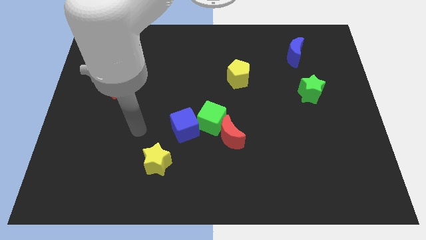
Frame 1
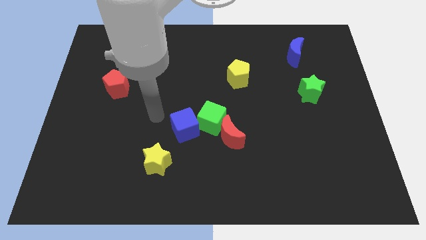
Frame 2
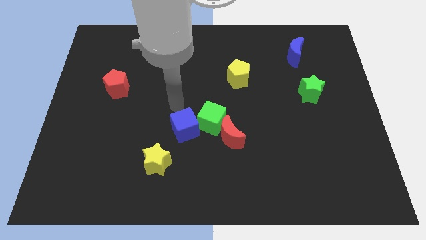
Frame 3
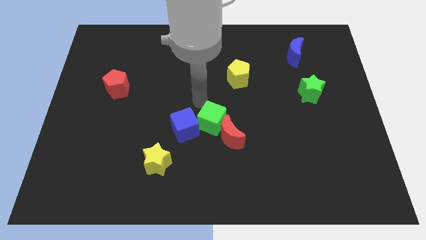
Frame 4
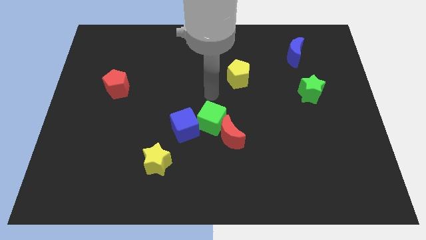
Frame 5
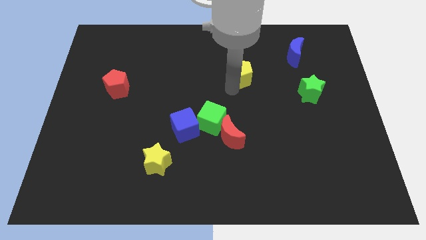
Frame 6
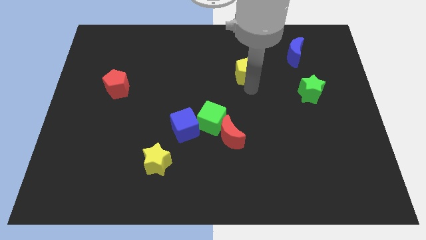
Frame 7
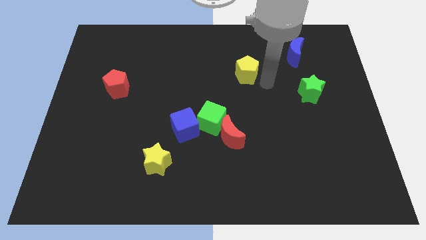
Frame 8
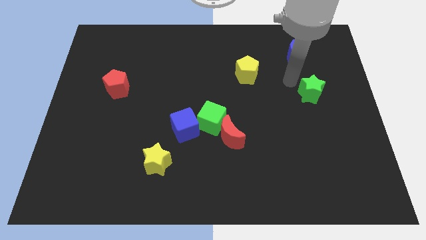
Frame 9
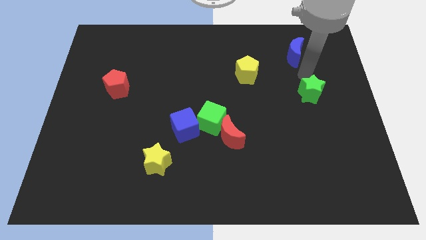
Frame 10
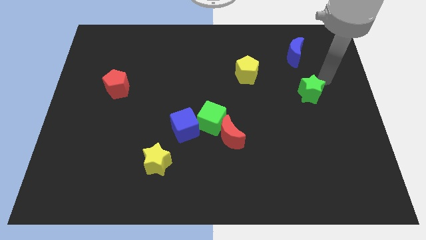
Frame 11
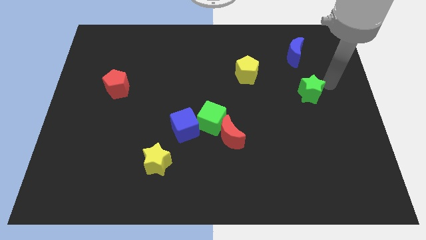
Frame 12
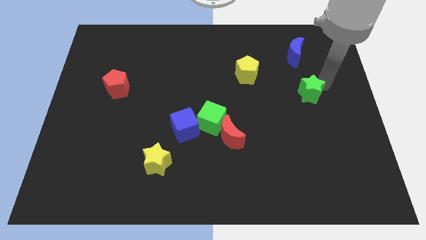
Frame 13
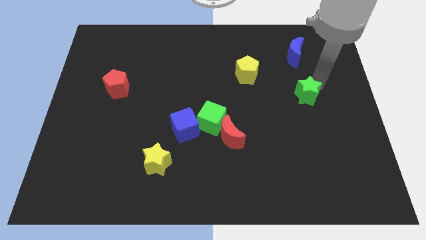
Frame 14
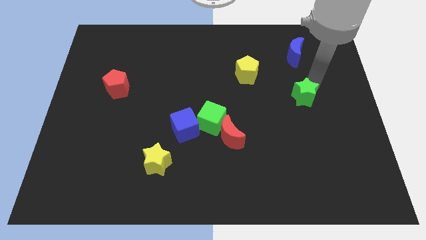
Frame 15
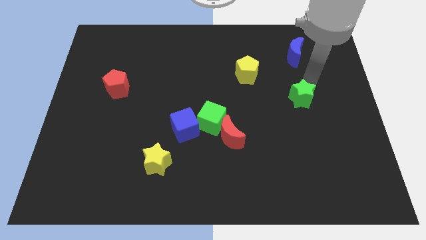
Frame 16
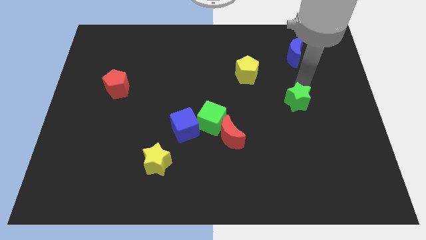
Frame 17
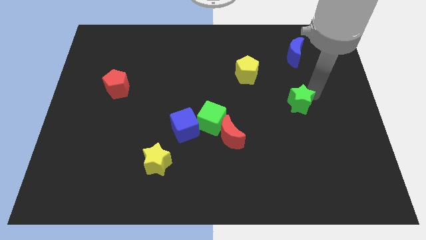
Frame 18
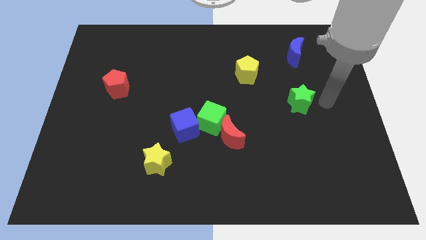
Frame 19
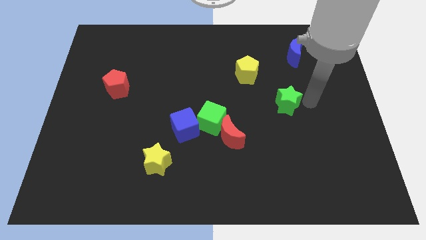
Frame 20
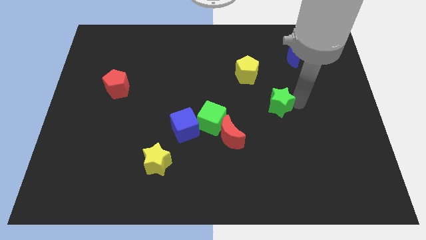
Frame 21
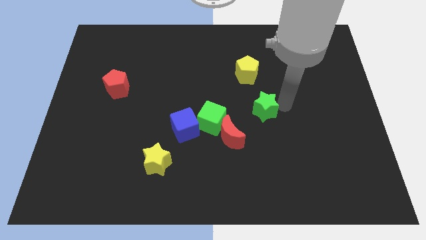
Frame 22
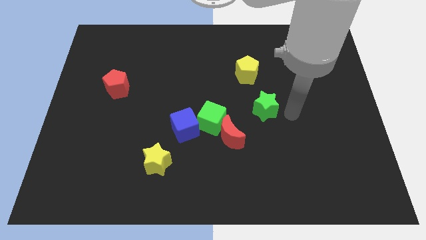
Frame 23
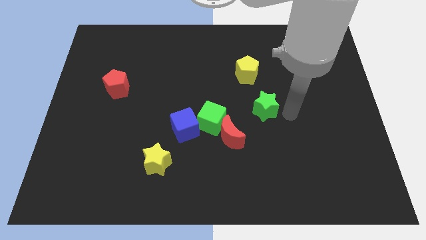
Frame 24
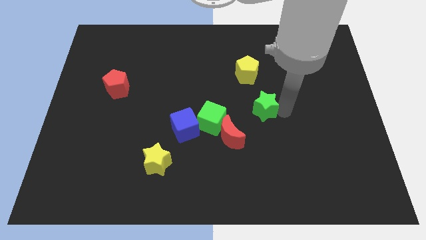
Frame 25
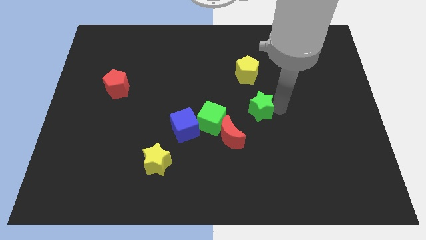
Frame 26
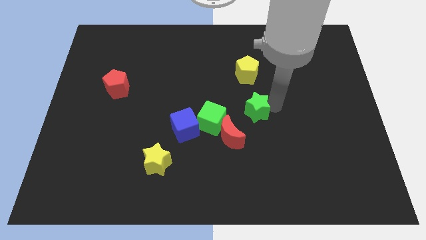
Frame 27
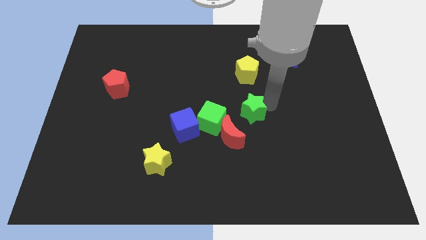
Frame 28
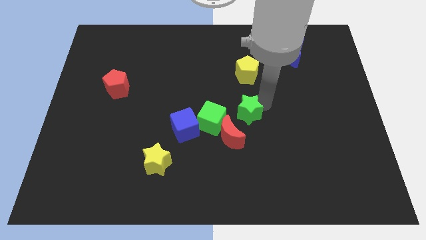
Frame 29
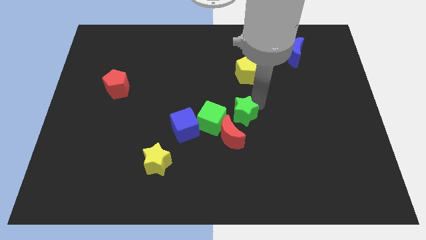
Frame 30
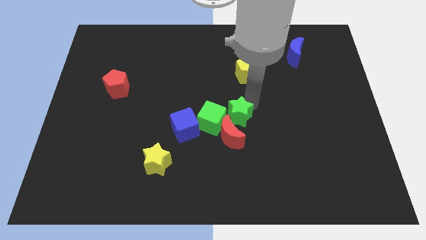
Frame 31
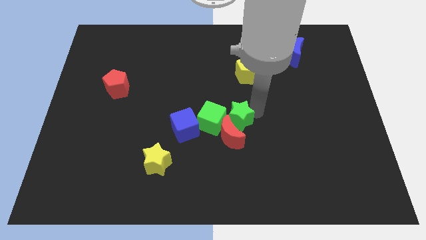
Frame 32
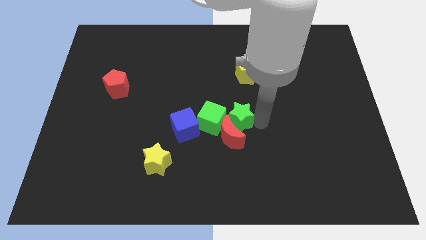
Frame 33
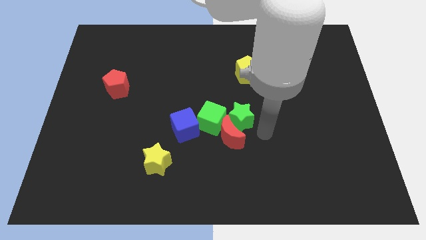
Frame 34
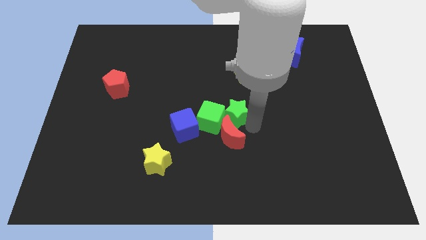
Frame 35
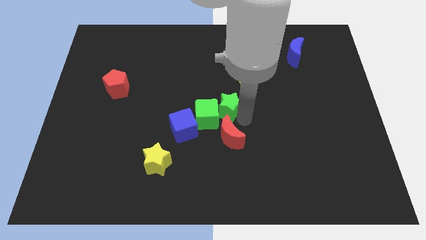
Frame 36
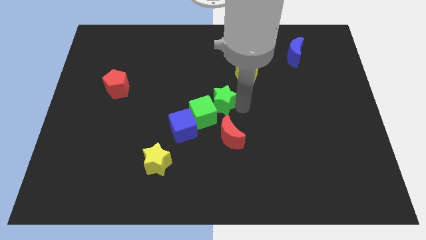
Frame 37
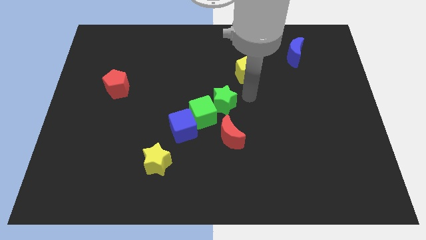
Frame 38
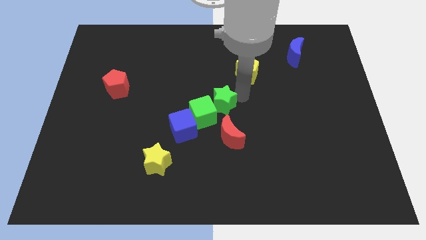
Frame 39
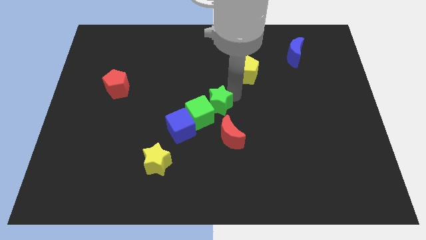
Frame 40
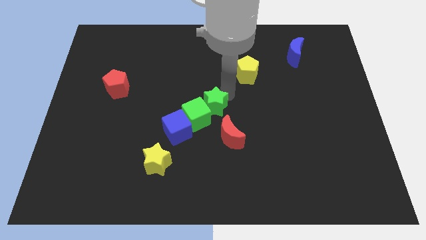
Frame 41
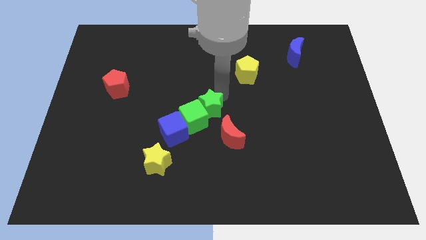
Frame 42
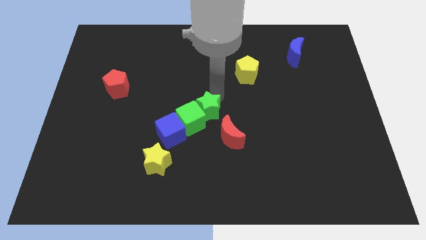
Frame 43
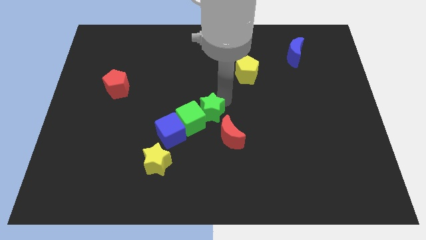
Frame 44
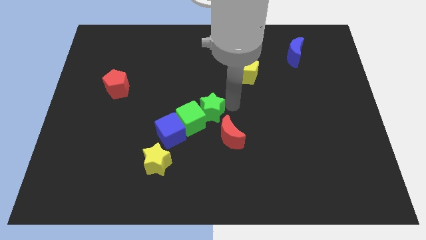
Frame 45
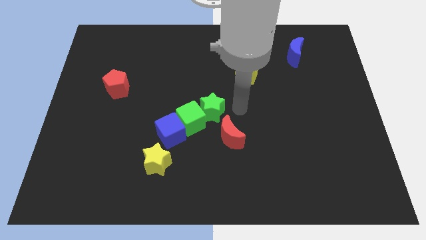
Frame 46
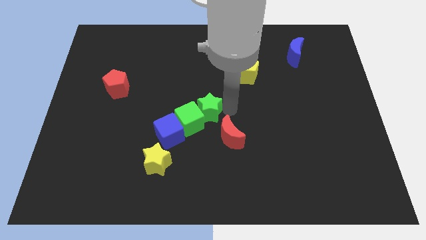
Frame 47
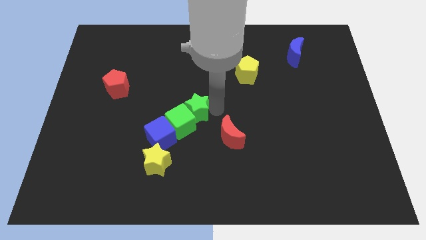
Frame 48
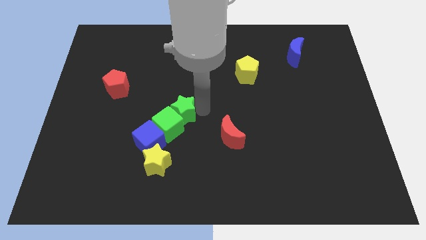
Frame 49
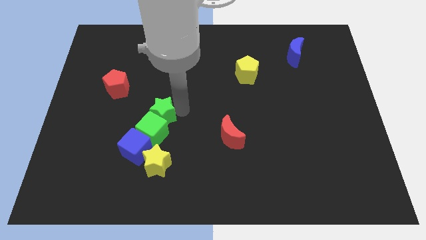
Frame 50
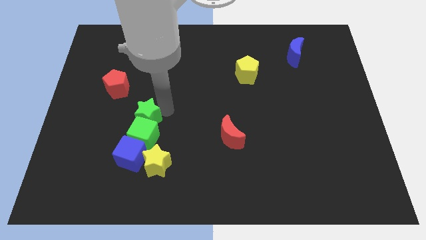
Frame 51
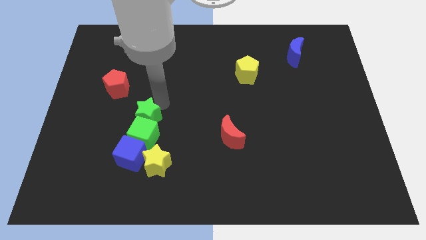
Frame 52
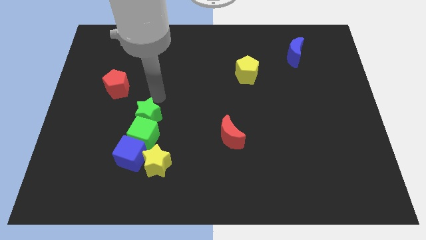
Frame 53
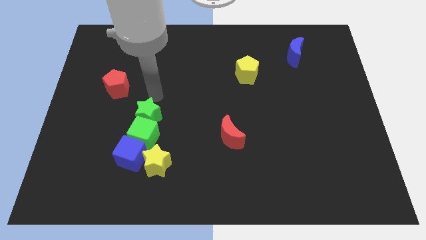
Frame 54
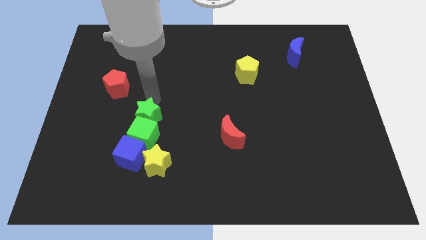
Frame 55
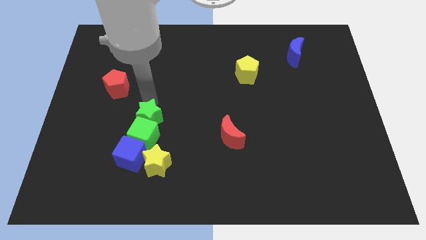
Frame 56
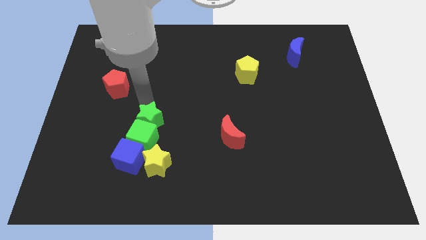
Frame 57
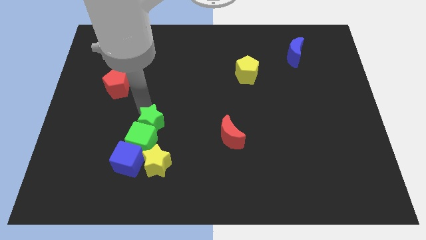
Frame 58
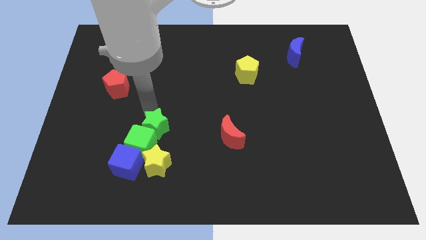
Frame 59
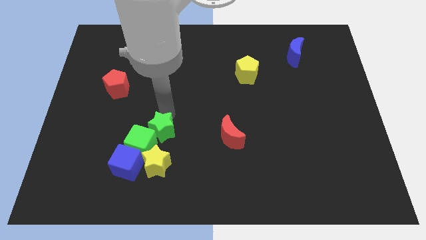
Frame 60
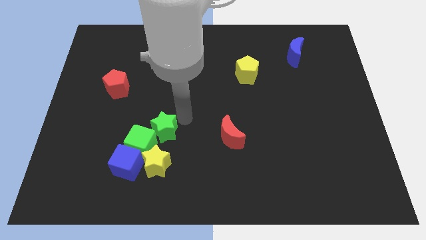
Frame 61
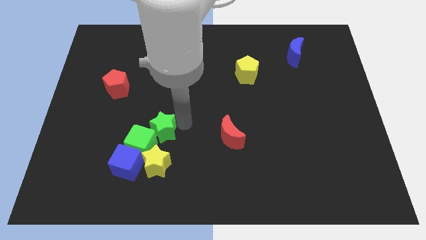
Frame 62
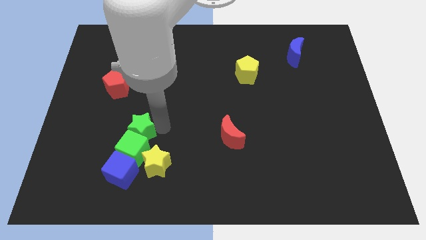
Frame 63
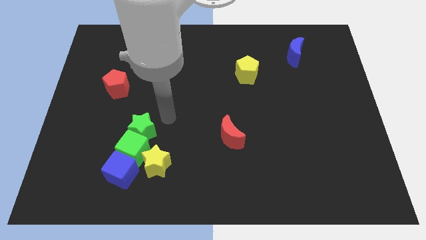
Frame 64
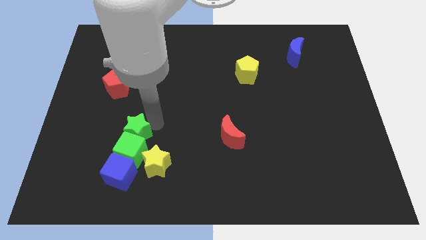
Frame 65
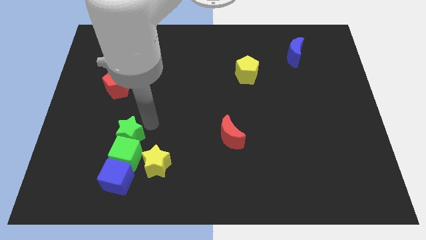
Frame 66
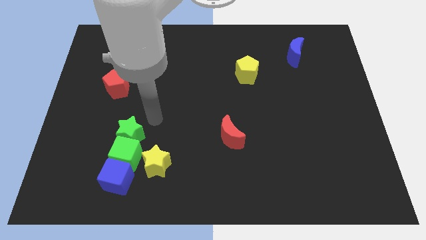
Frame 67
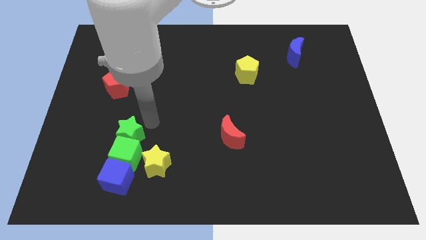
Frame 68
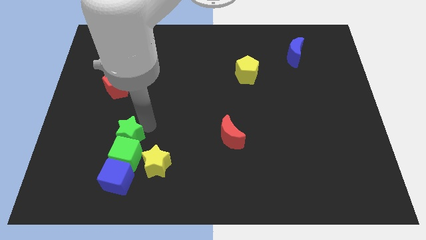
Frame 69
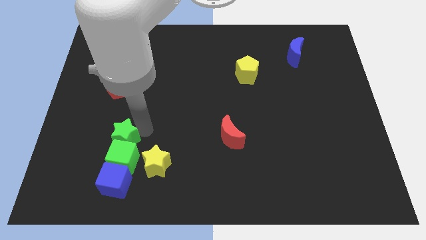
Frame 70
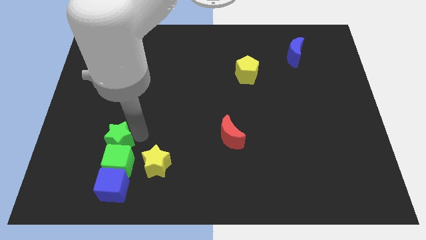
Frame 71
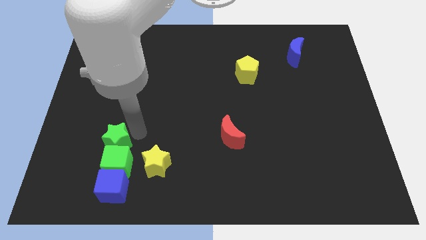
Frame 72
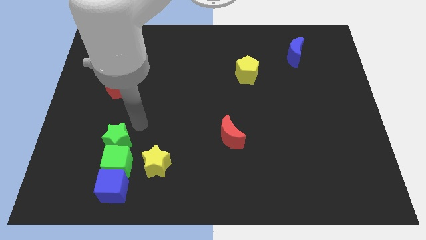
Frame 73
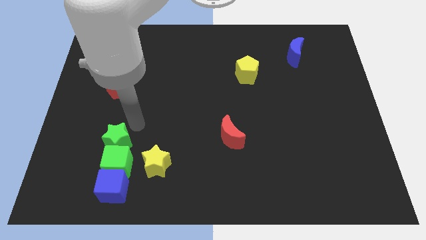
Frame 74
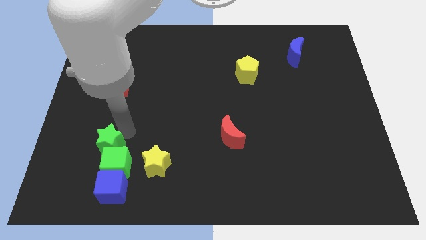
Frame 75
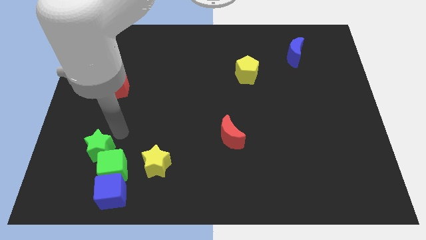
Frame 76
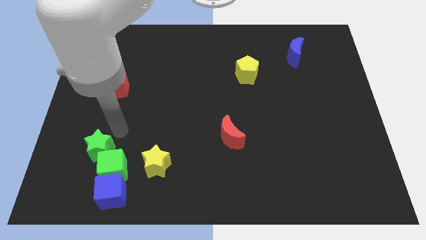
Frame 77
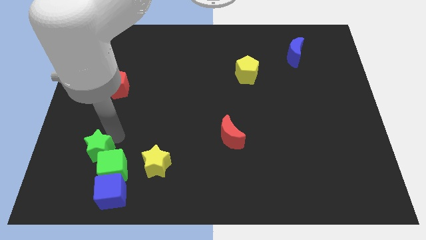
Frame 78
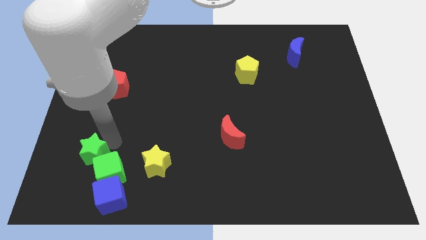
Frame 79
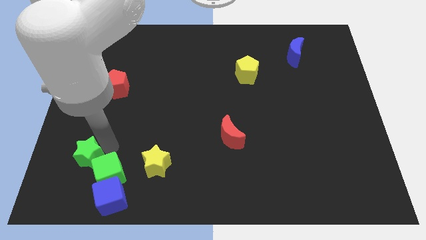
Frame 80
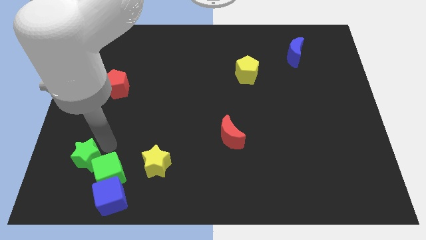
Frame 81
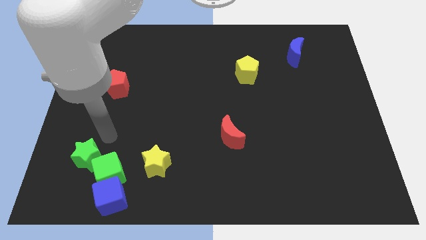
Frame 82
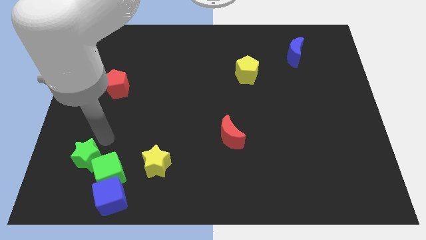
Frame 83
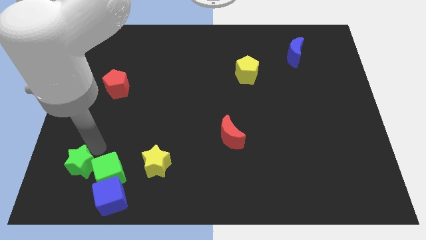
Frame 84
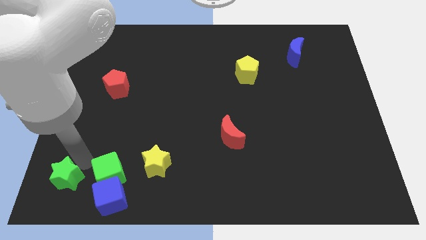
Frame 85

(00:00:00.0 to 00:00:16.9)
slide the green star to the bottom left of the board
